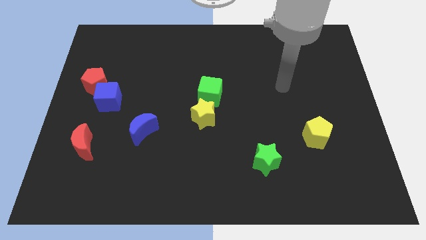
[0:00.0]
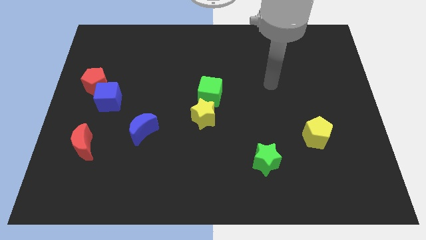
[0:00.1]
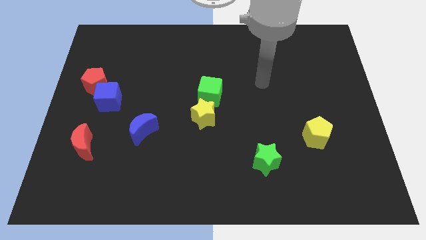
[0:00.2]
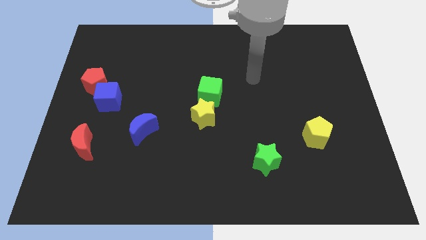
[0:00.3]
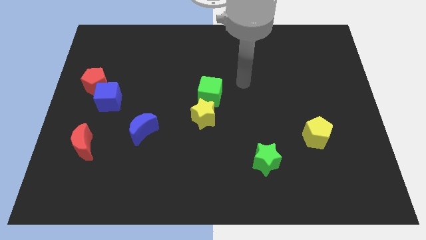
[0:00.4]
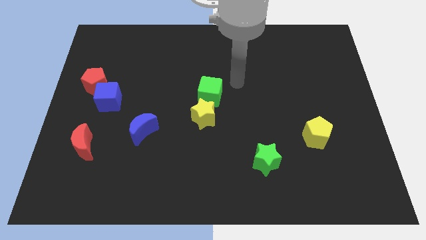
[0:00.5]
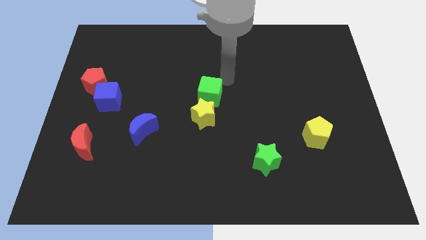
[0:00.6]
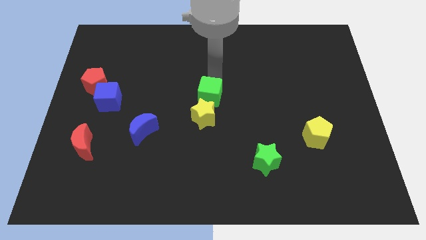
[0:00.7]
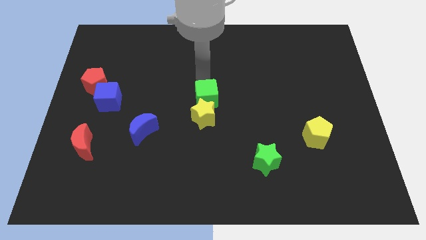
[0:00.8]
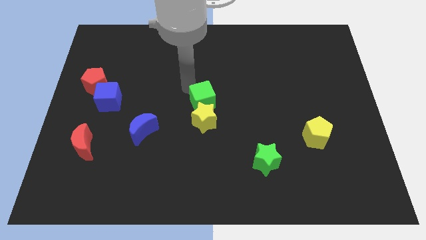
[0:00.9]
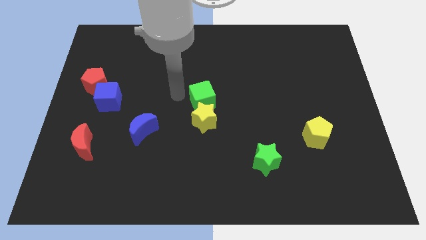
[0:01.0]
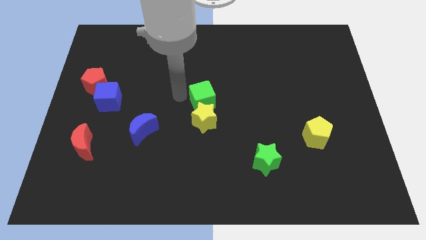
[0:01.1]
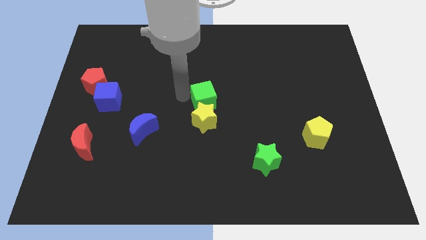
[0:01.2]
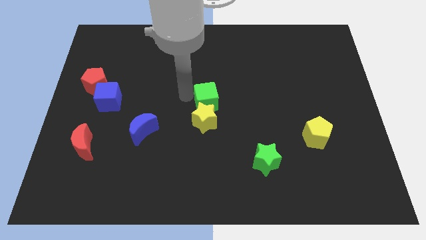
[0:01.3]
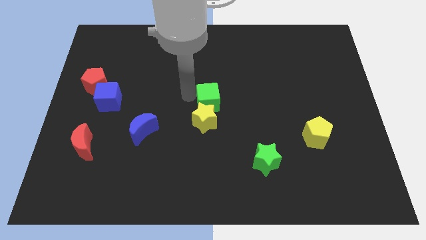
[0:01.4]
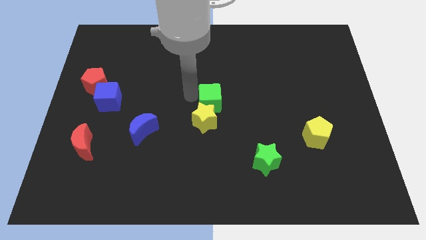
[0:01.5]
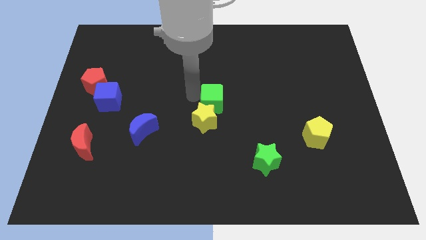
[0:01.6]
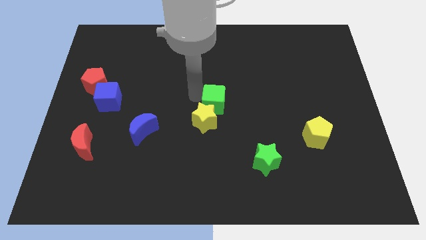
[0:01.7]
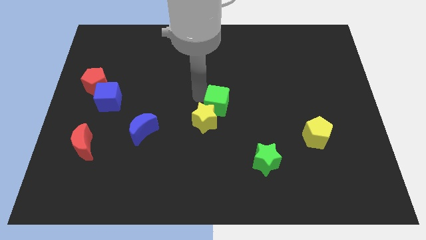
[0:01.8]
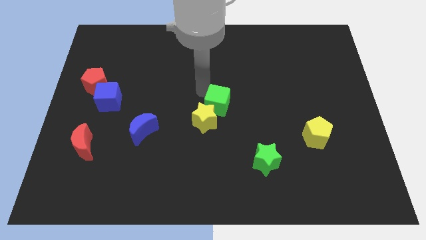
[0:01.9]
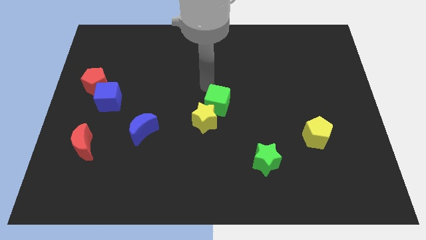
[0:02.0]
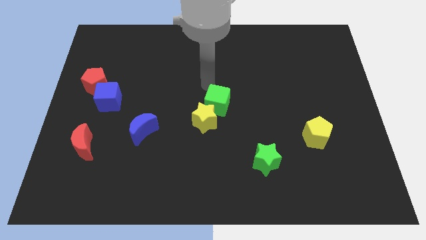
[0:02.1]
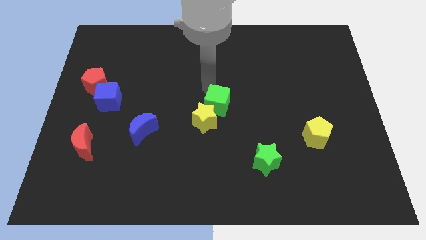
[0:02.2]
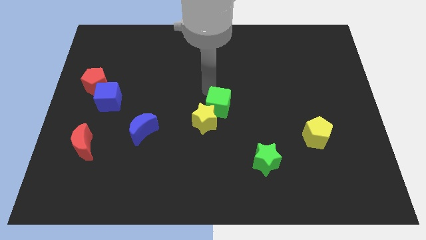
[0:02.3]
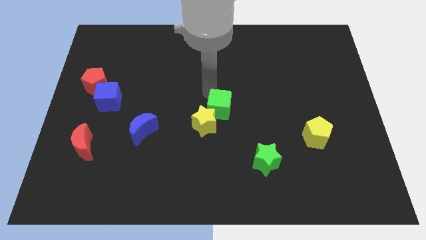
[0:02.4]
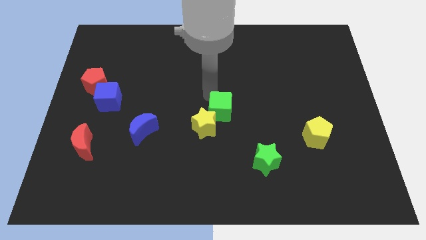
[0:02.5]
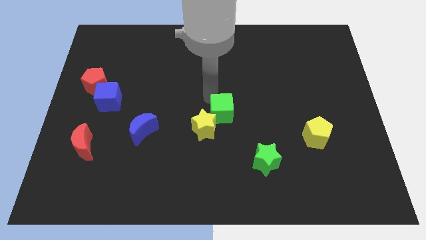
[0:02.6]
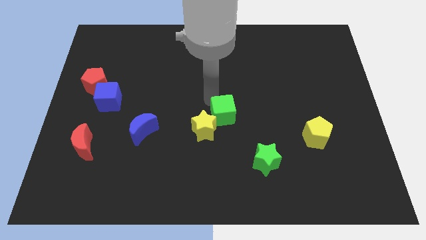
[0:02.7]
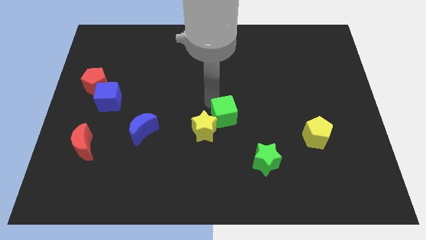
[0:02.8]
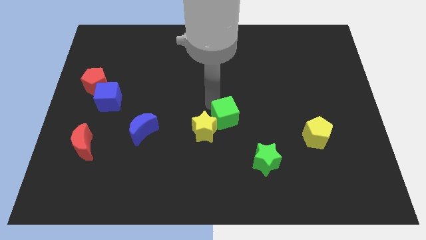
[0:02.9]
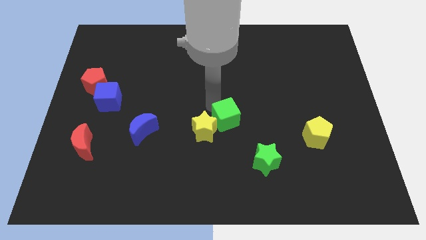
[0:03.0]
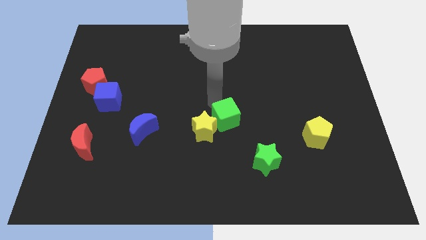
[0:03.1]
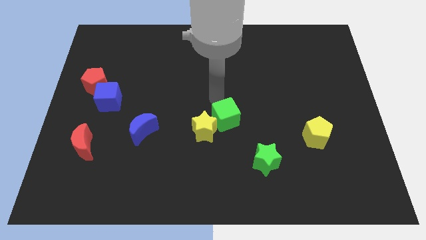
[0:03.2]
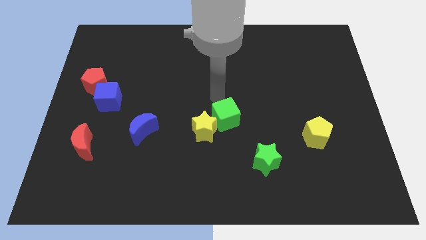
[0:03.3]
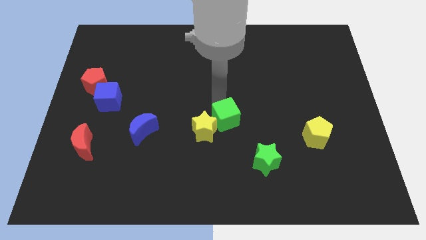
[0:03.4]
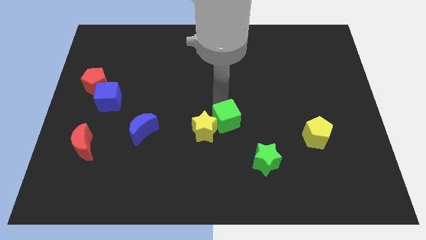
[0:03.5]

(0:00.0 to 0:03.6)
move the green cube slightly downwards

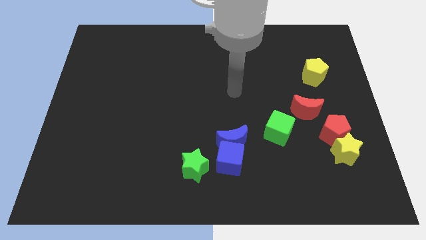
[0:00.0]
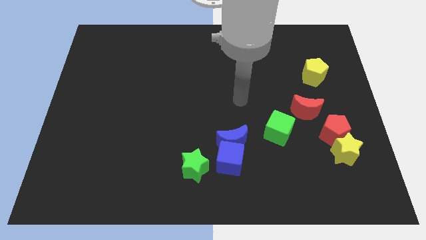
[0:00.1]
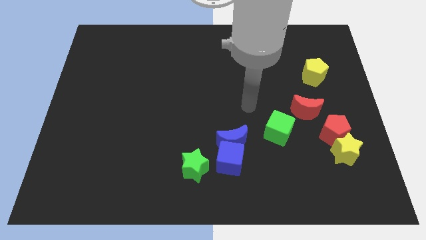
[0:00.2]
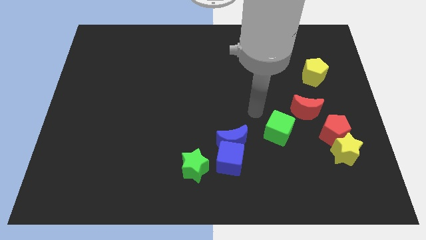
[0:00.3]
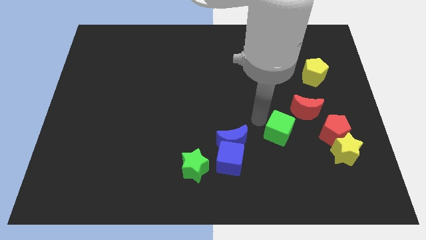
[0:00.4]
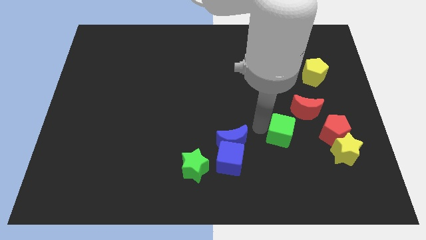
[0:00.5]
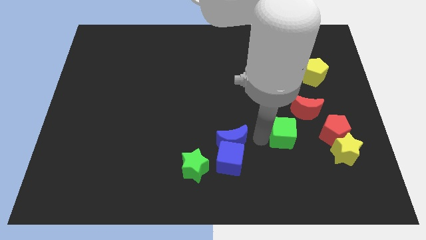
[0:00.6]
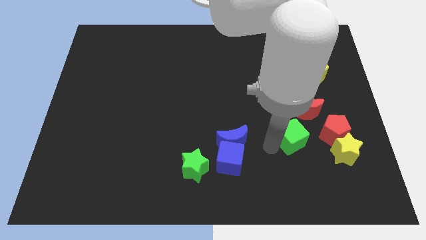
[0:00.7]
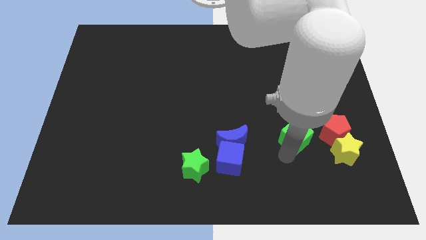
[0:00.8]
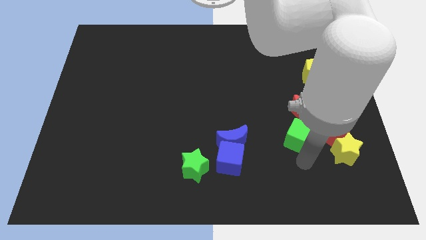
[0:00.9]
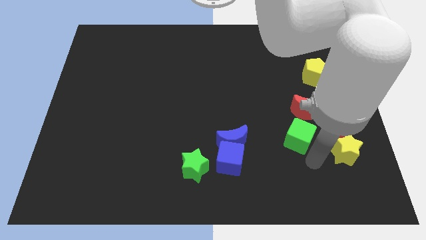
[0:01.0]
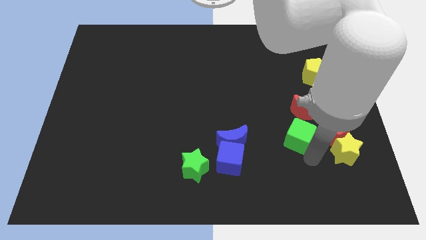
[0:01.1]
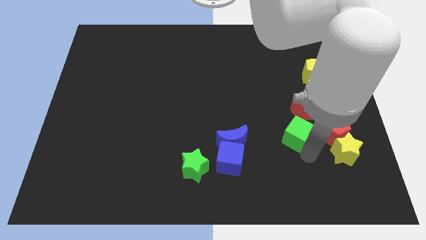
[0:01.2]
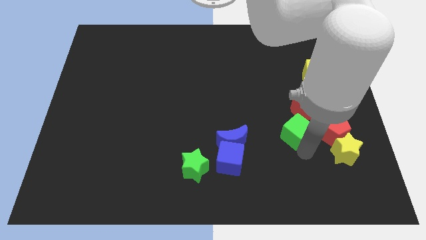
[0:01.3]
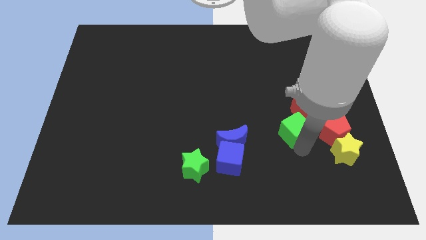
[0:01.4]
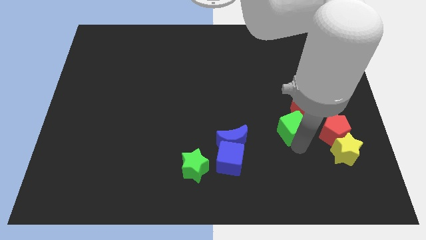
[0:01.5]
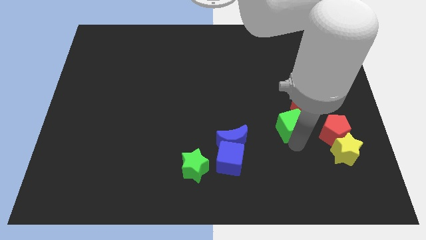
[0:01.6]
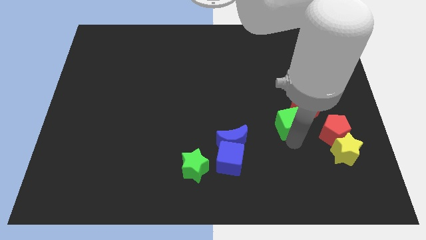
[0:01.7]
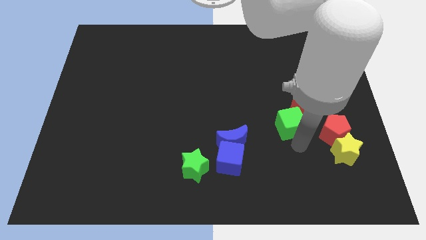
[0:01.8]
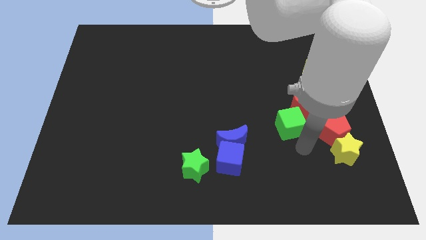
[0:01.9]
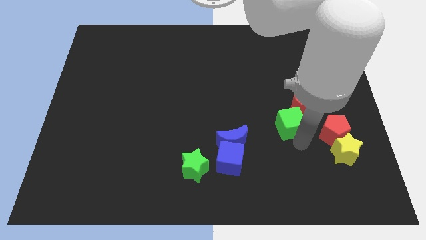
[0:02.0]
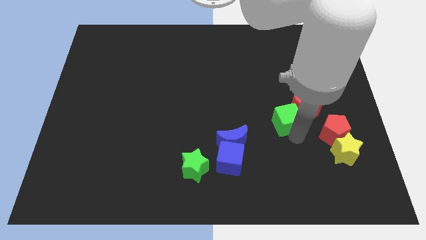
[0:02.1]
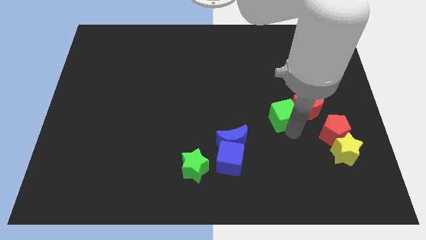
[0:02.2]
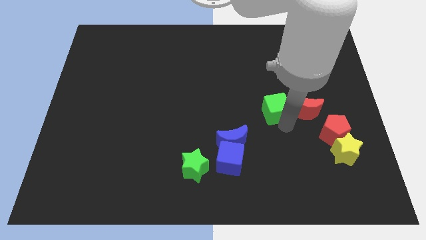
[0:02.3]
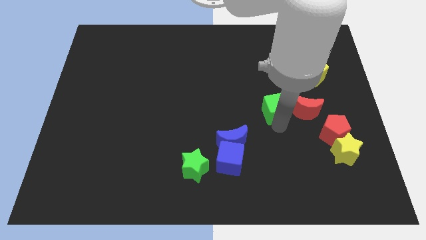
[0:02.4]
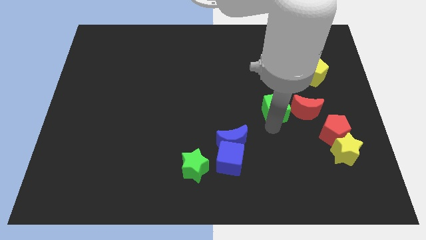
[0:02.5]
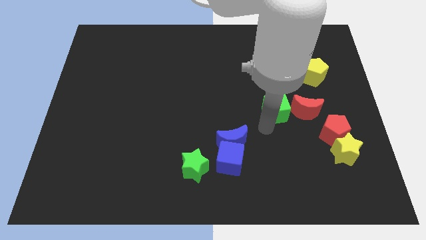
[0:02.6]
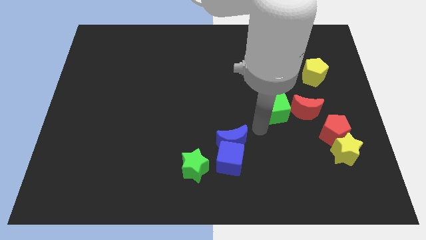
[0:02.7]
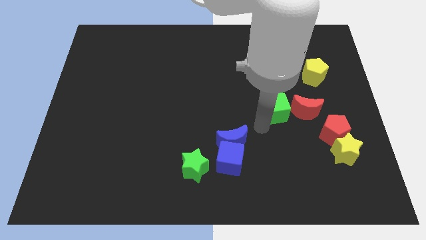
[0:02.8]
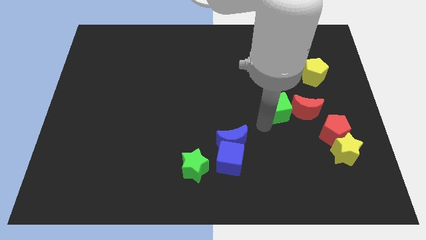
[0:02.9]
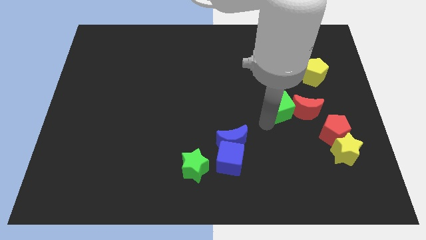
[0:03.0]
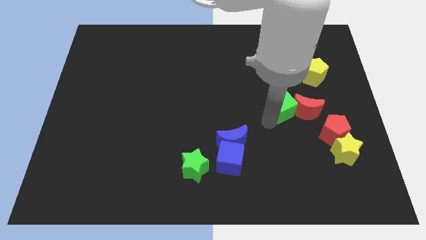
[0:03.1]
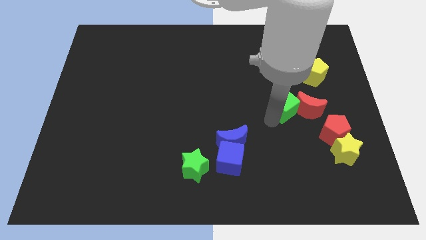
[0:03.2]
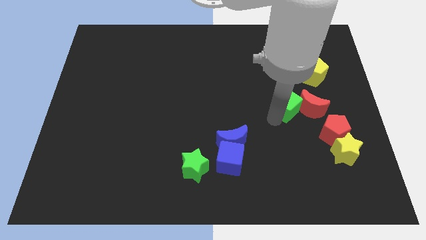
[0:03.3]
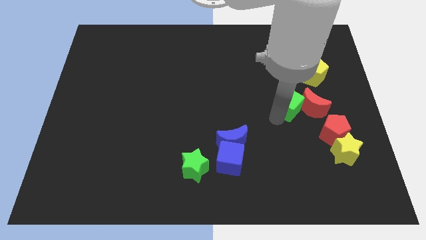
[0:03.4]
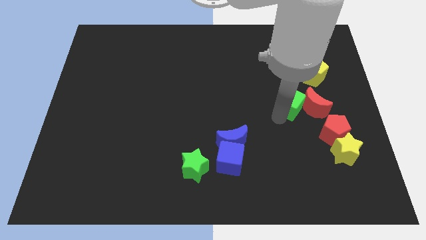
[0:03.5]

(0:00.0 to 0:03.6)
push the green cube somewhat up and then to the right

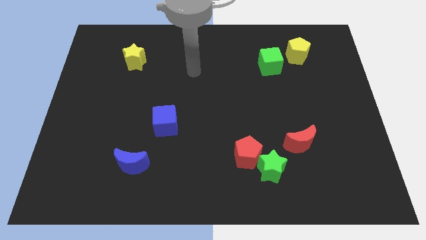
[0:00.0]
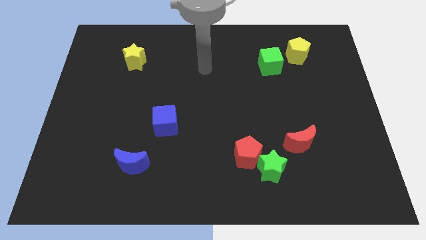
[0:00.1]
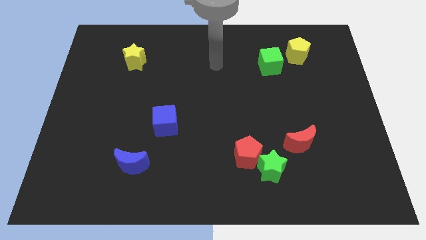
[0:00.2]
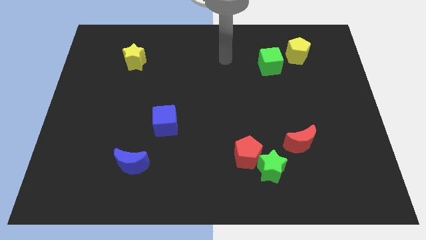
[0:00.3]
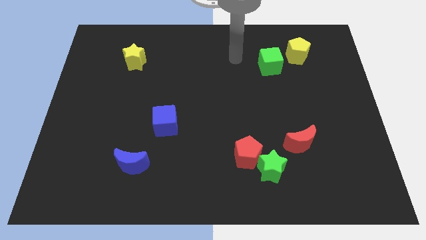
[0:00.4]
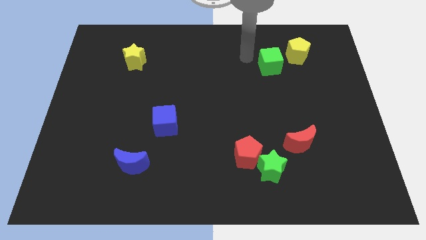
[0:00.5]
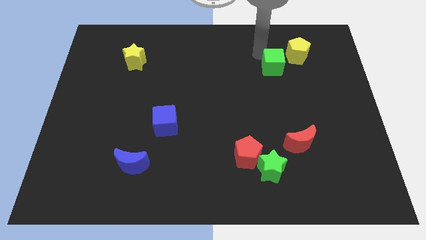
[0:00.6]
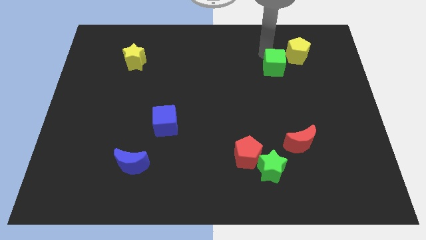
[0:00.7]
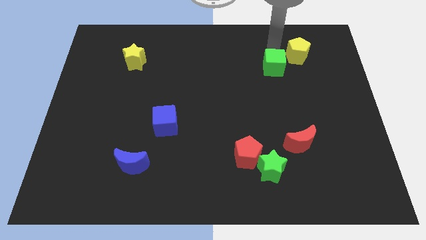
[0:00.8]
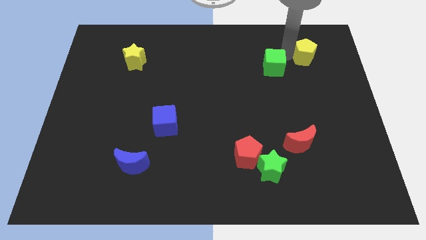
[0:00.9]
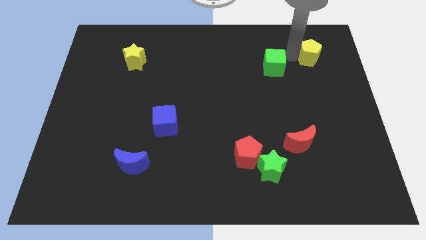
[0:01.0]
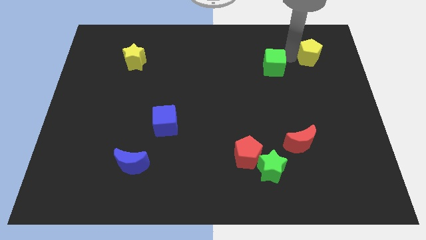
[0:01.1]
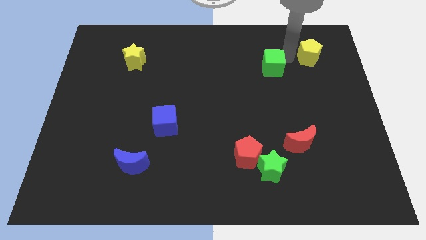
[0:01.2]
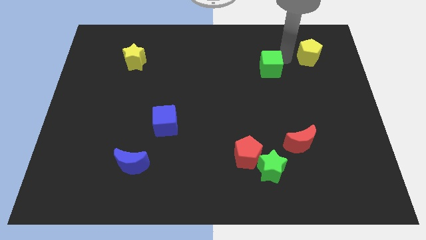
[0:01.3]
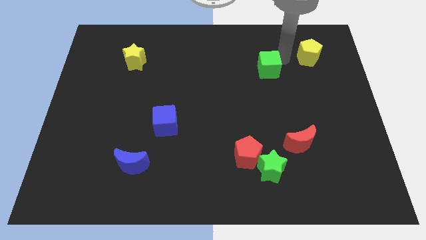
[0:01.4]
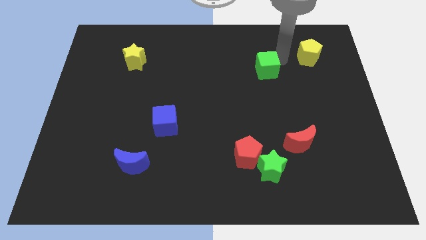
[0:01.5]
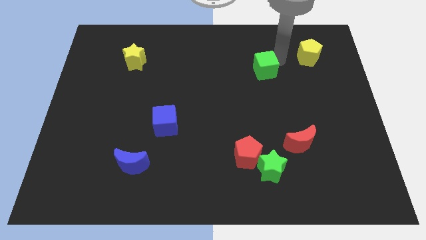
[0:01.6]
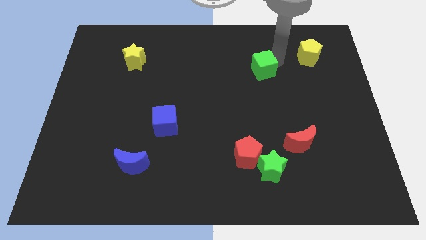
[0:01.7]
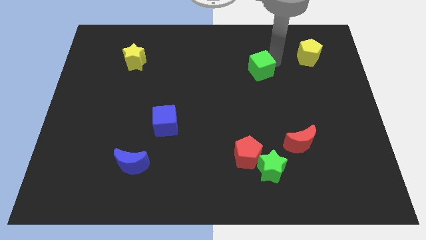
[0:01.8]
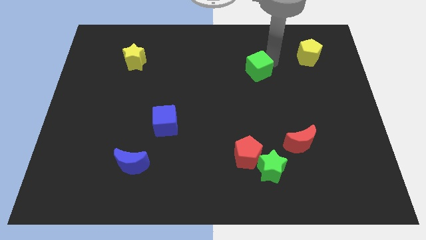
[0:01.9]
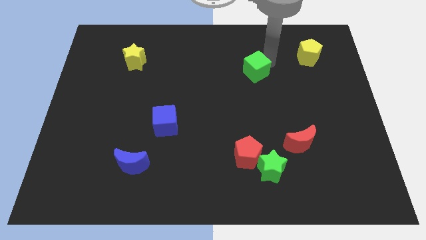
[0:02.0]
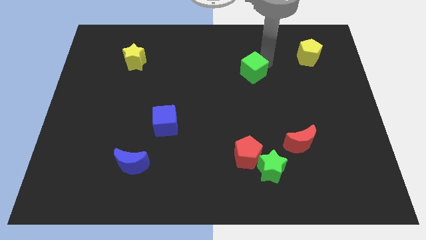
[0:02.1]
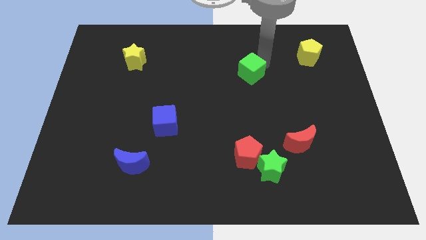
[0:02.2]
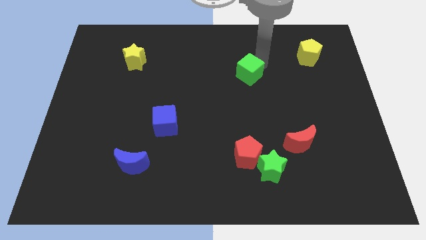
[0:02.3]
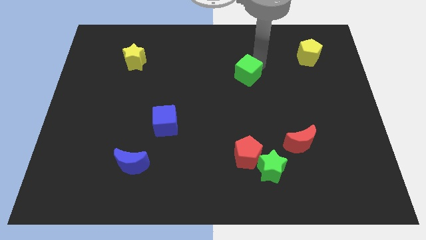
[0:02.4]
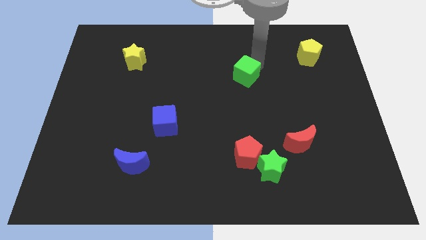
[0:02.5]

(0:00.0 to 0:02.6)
move the green cube diagonally down and to the left a bit
